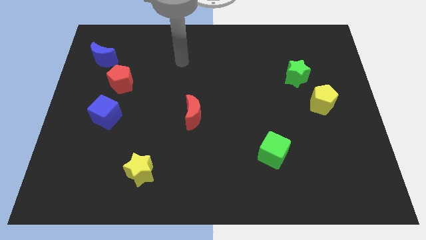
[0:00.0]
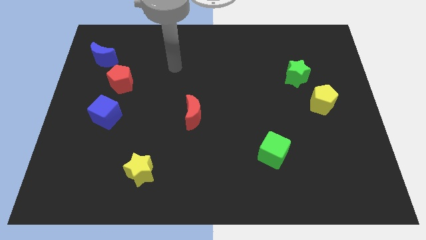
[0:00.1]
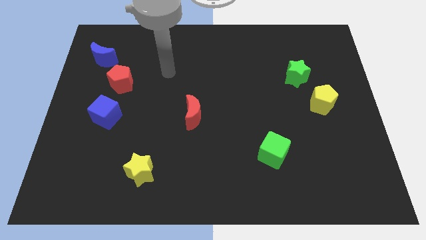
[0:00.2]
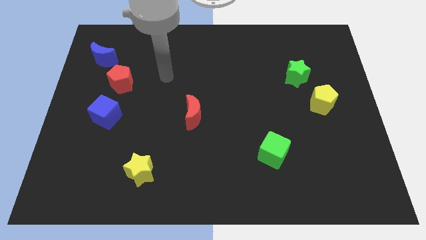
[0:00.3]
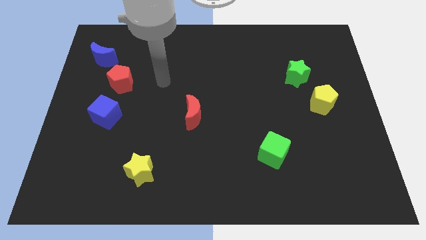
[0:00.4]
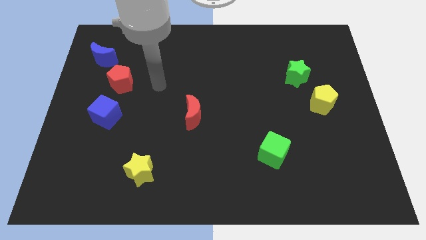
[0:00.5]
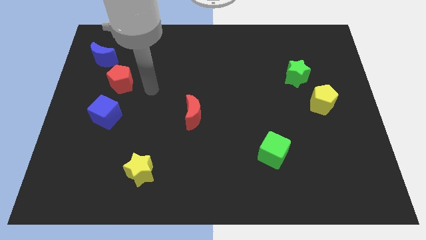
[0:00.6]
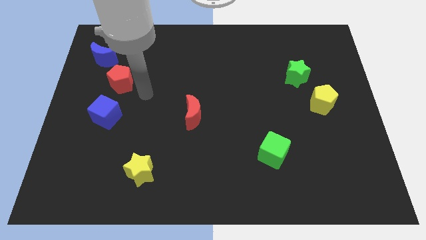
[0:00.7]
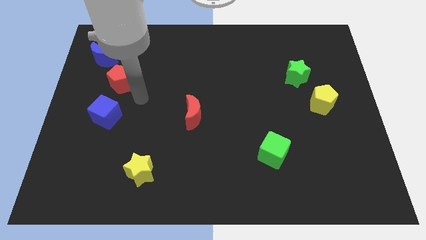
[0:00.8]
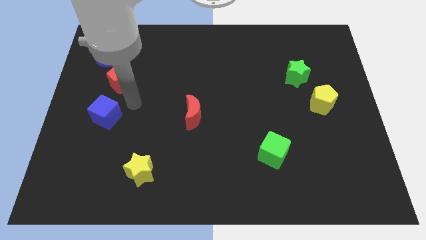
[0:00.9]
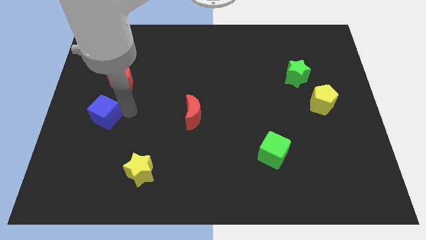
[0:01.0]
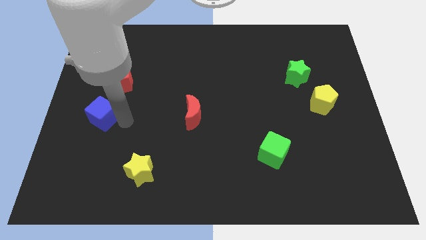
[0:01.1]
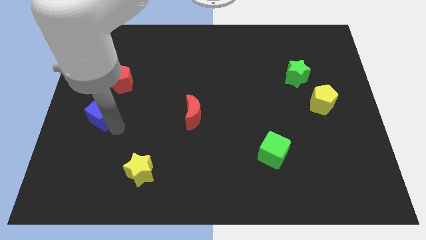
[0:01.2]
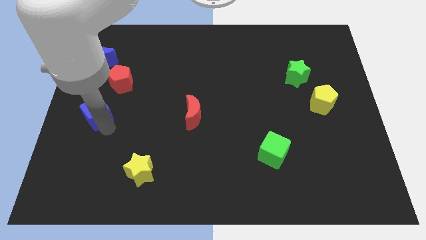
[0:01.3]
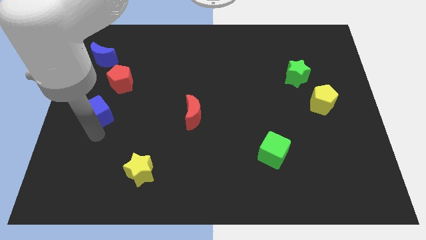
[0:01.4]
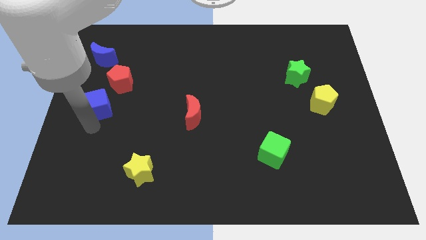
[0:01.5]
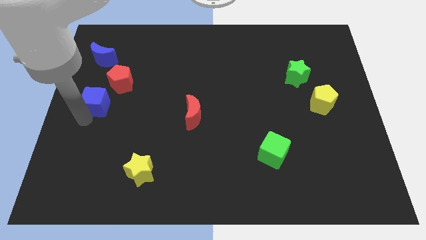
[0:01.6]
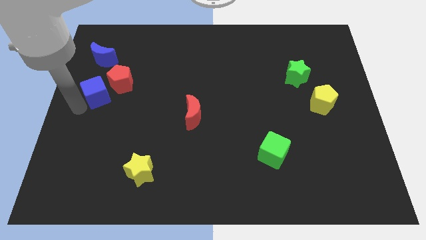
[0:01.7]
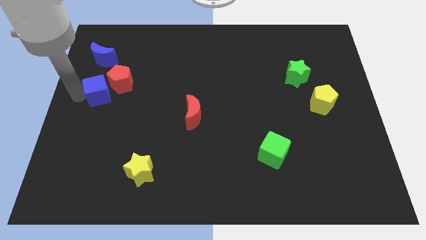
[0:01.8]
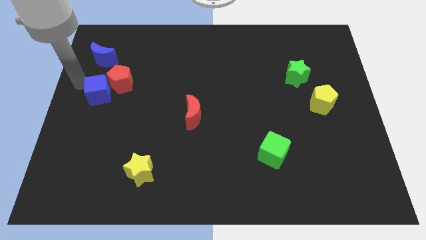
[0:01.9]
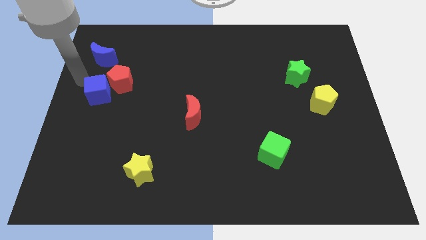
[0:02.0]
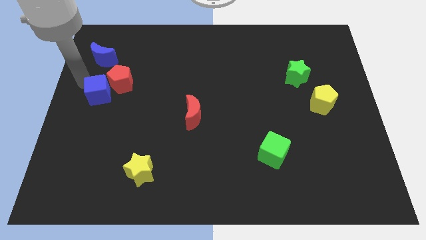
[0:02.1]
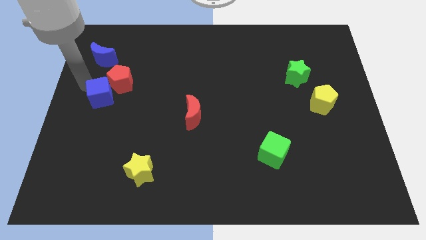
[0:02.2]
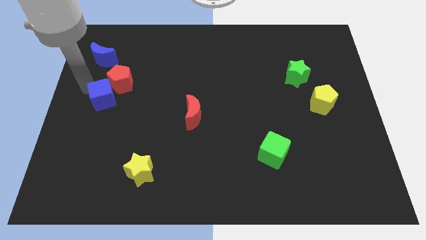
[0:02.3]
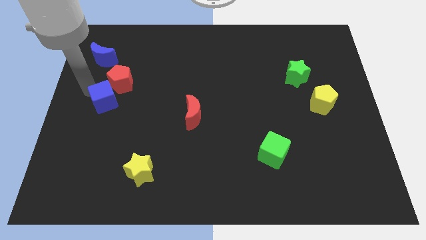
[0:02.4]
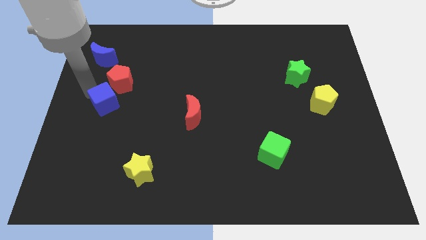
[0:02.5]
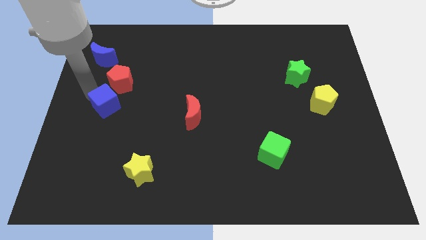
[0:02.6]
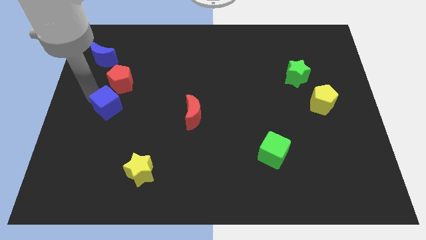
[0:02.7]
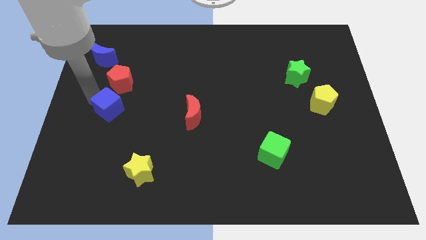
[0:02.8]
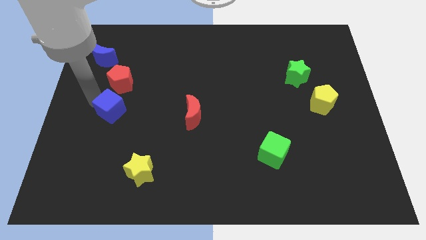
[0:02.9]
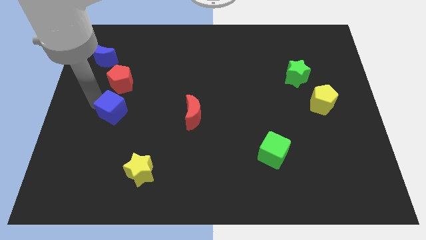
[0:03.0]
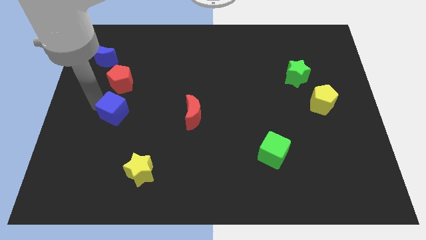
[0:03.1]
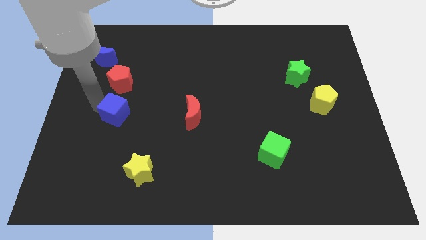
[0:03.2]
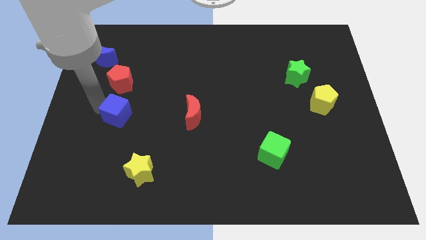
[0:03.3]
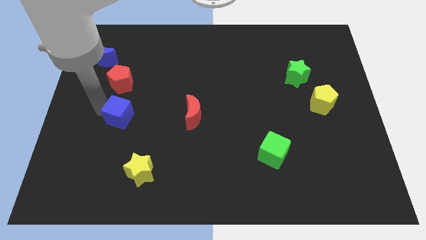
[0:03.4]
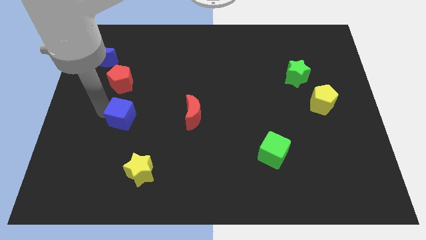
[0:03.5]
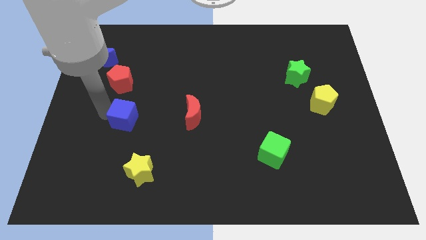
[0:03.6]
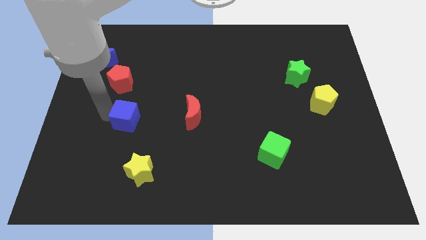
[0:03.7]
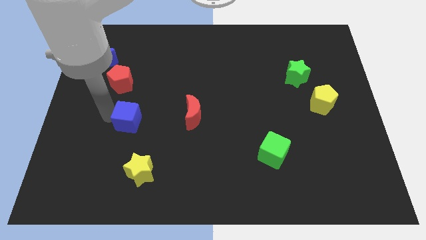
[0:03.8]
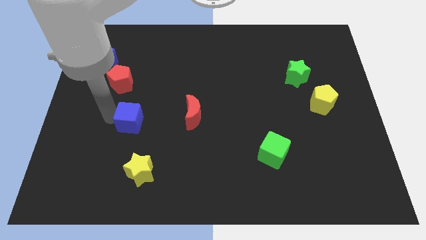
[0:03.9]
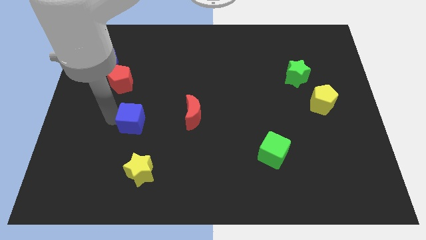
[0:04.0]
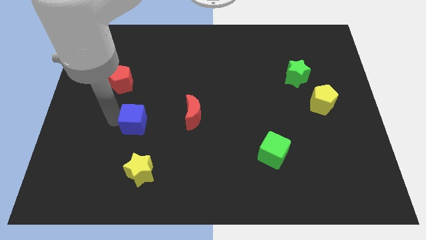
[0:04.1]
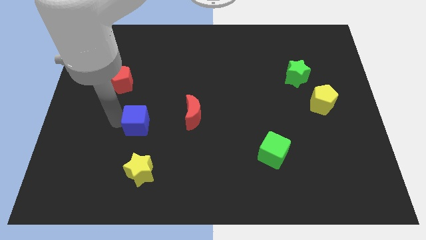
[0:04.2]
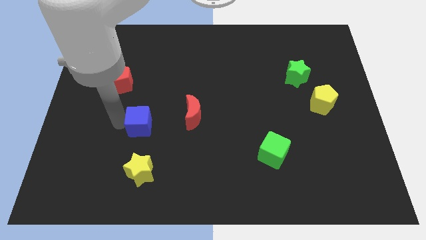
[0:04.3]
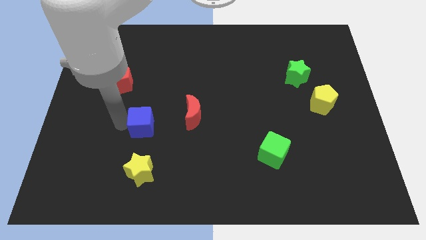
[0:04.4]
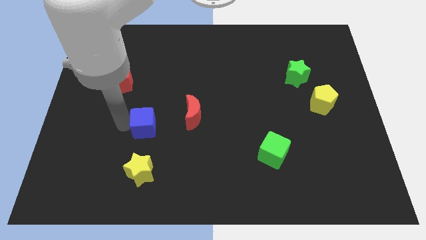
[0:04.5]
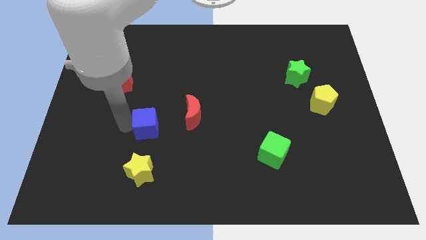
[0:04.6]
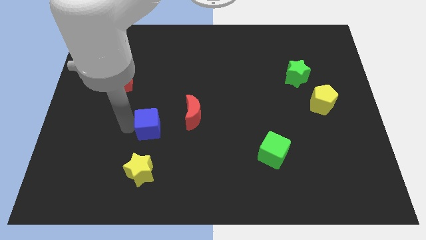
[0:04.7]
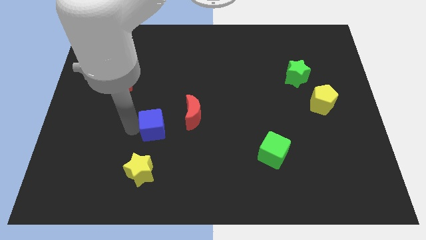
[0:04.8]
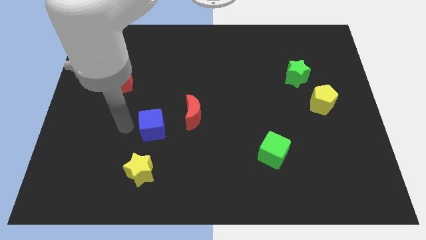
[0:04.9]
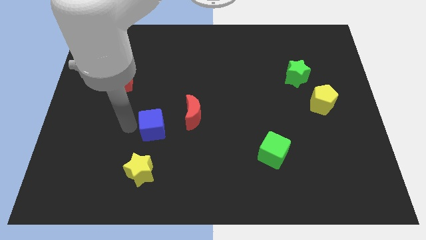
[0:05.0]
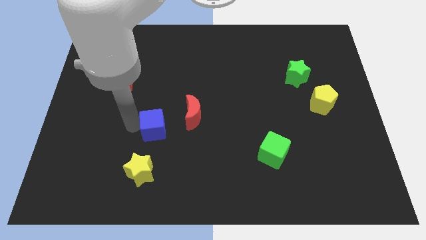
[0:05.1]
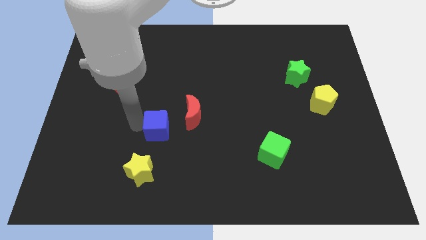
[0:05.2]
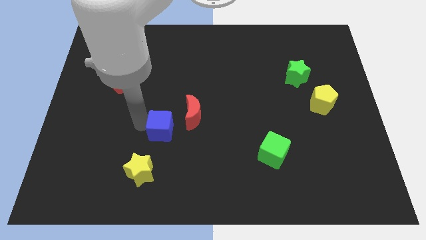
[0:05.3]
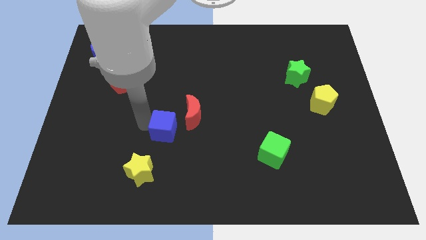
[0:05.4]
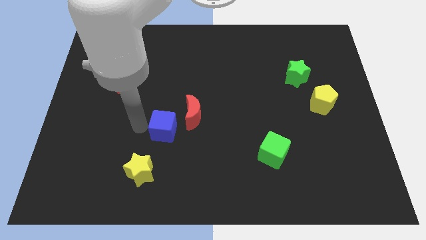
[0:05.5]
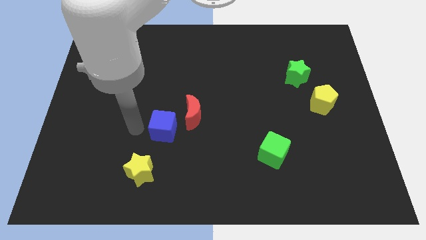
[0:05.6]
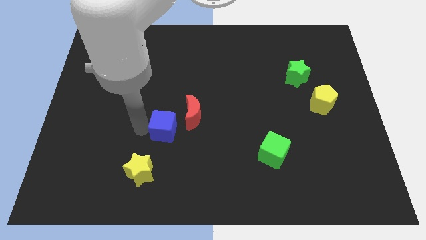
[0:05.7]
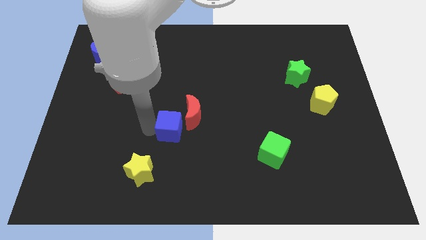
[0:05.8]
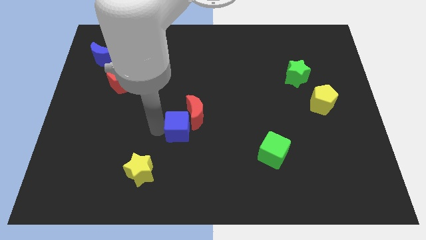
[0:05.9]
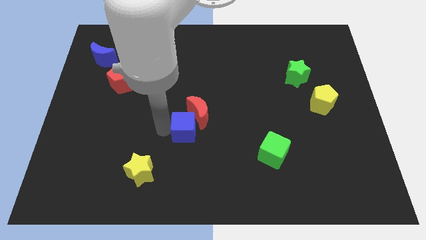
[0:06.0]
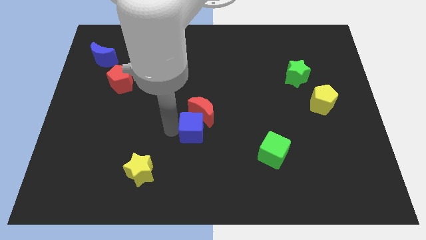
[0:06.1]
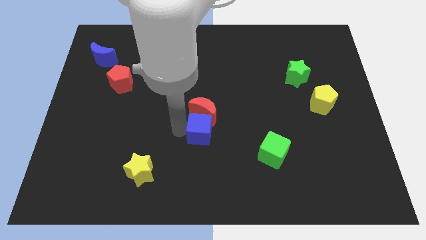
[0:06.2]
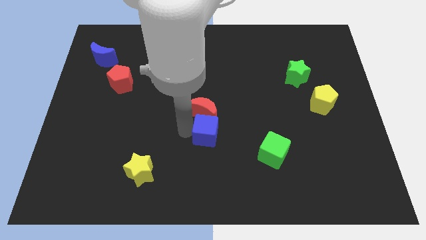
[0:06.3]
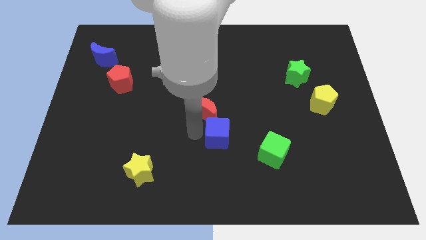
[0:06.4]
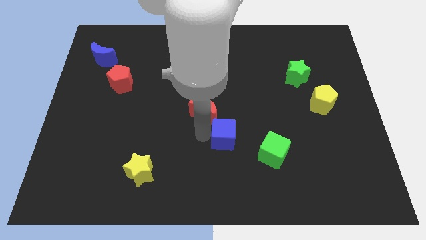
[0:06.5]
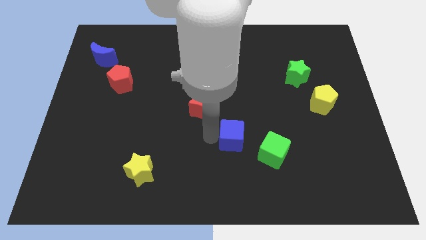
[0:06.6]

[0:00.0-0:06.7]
slide the blue cube to the top left side of the green cube

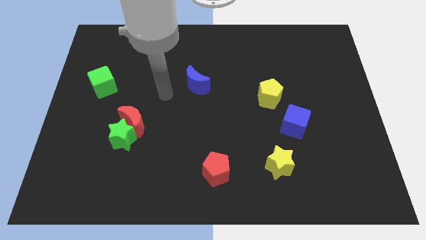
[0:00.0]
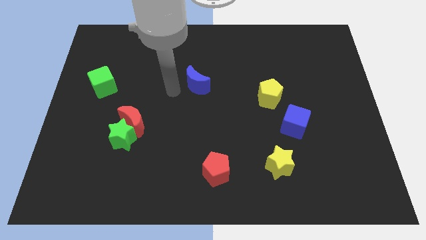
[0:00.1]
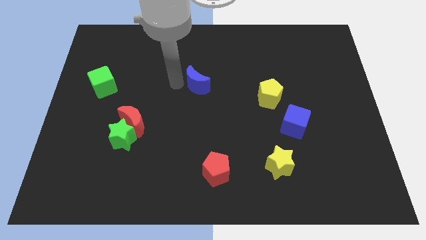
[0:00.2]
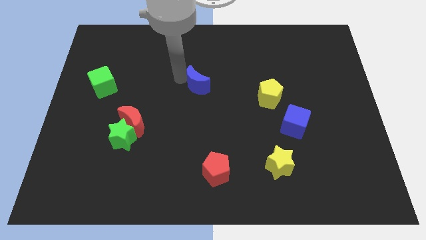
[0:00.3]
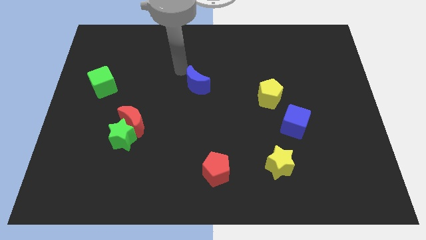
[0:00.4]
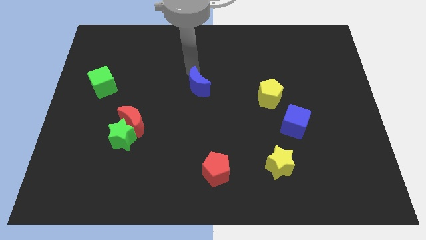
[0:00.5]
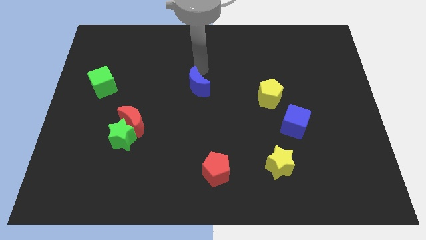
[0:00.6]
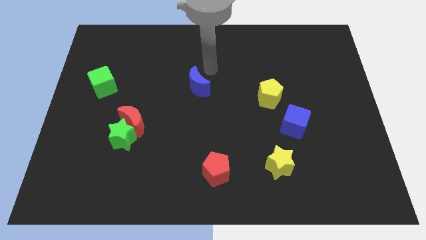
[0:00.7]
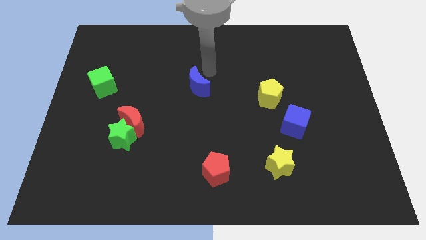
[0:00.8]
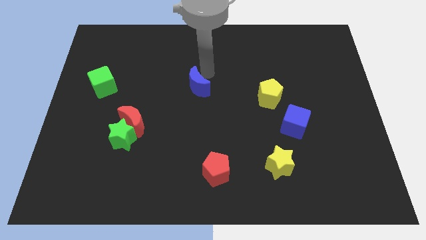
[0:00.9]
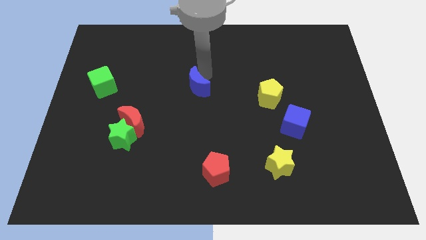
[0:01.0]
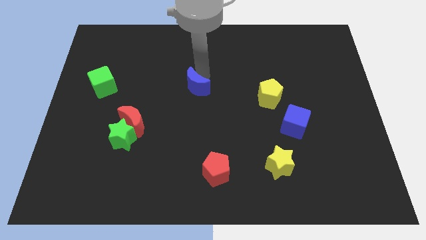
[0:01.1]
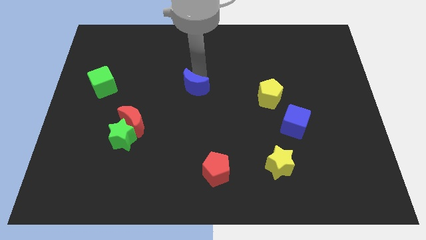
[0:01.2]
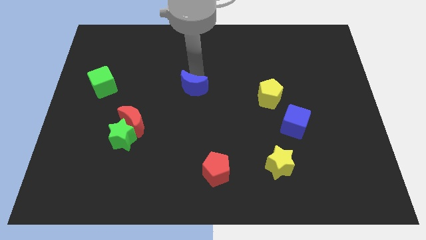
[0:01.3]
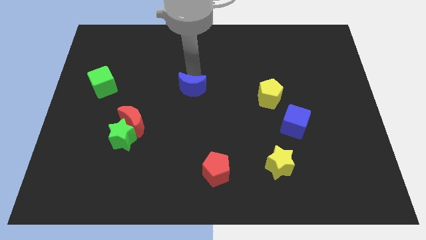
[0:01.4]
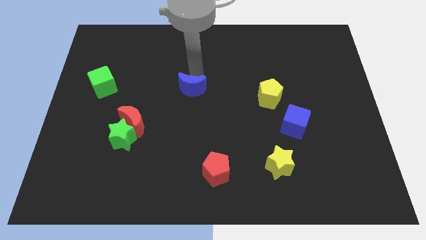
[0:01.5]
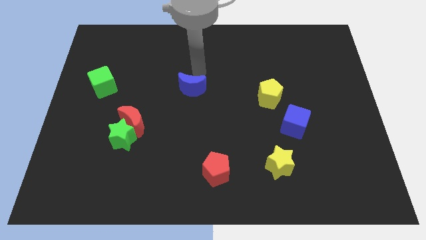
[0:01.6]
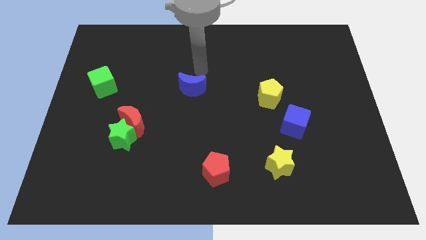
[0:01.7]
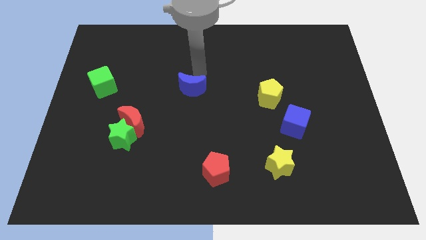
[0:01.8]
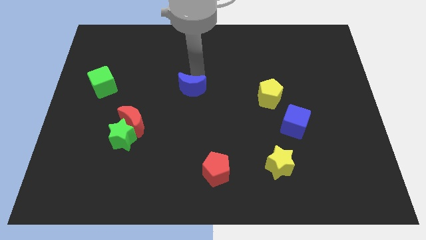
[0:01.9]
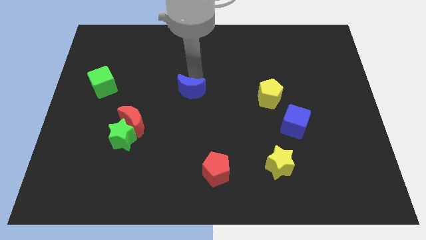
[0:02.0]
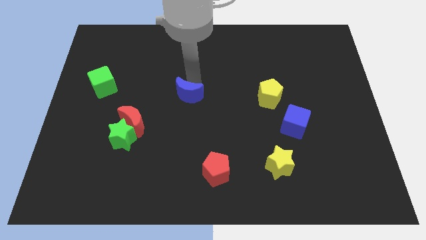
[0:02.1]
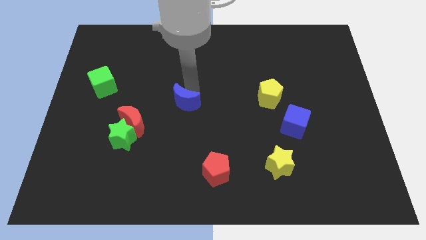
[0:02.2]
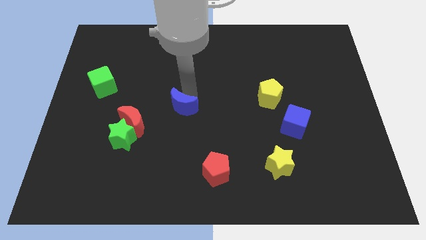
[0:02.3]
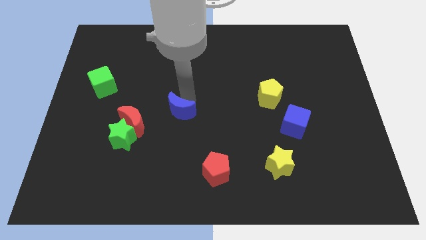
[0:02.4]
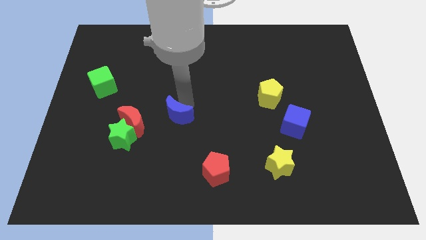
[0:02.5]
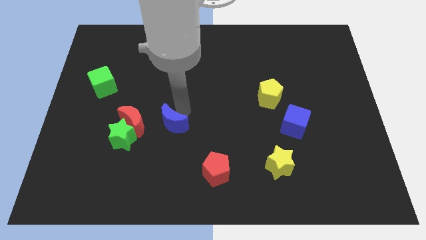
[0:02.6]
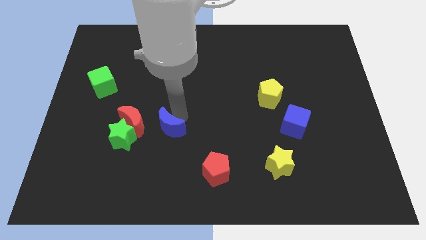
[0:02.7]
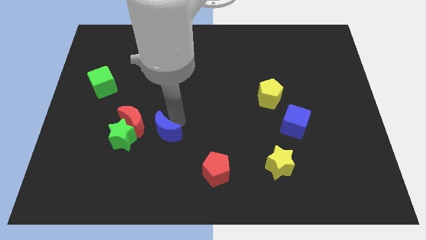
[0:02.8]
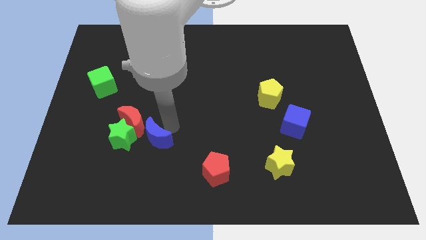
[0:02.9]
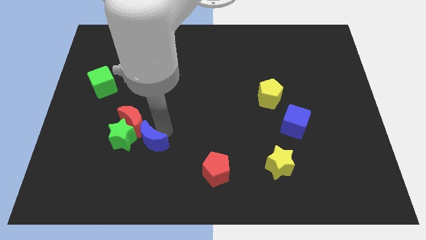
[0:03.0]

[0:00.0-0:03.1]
move the blue moon to the bottom right of the green star
